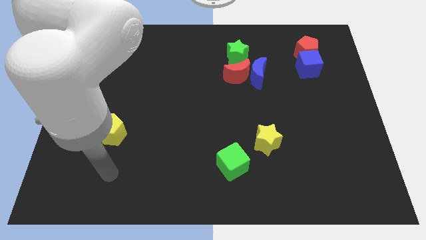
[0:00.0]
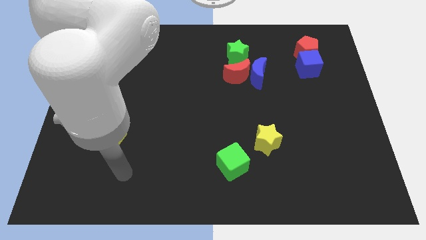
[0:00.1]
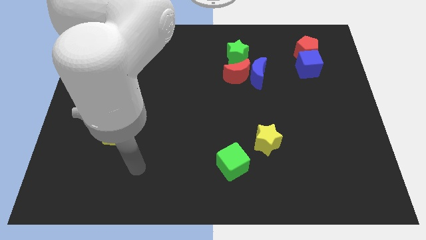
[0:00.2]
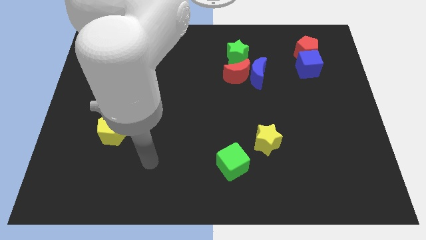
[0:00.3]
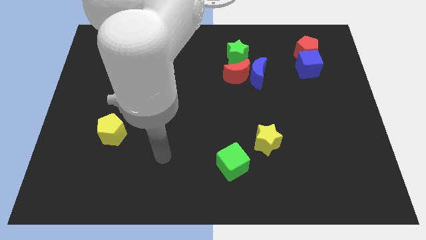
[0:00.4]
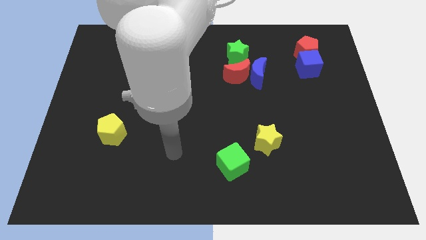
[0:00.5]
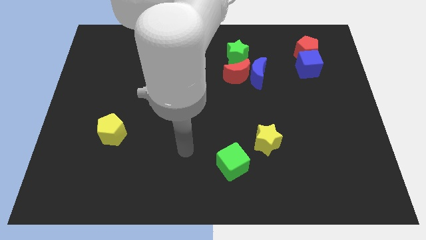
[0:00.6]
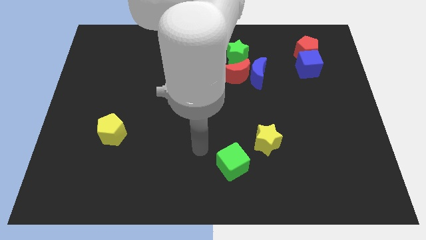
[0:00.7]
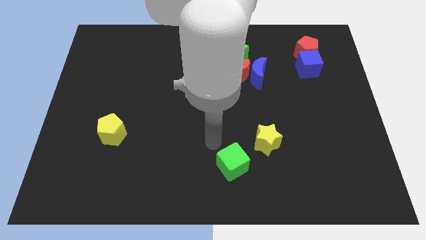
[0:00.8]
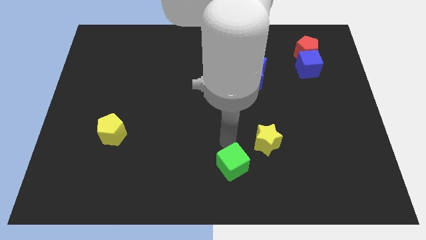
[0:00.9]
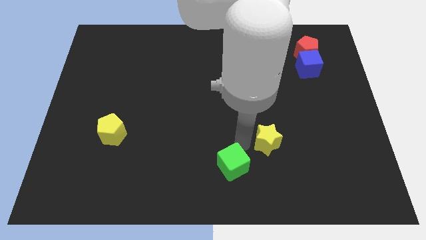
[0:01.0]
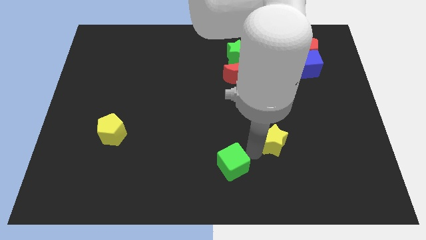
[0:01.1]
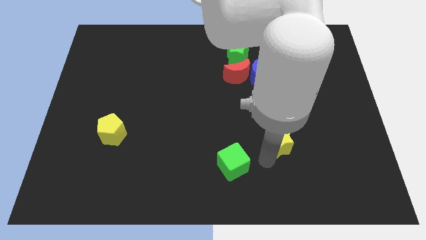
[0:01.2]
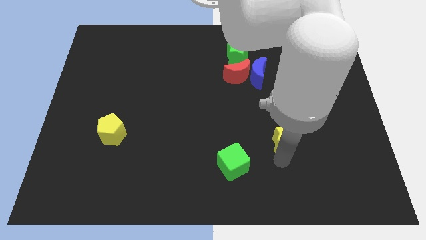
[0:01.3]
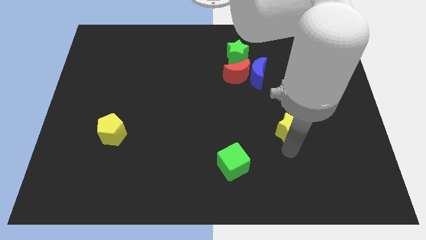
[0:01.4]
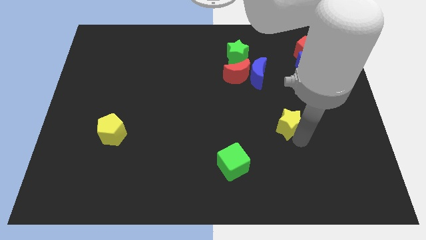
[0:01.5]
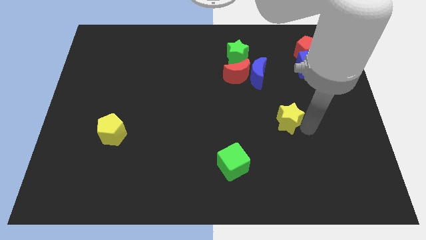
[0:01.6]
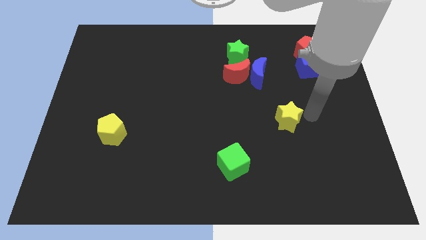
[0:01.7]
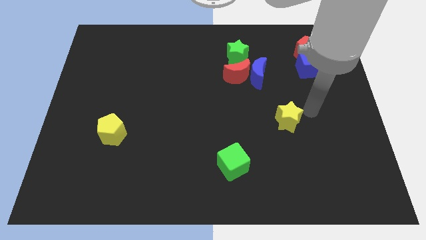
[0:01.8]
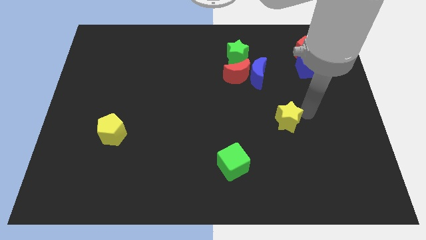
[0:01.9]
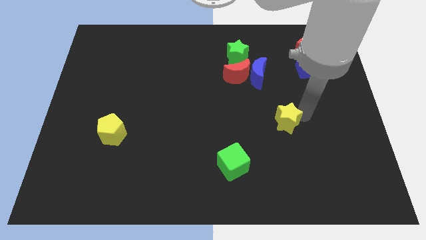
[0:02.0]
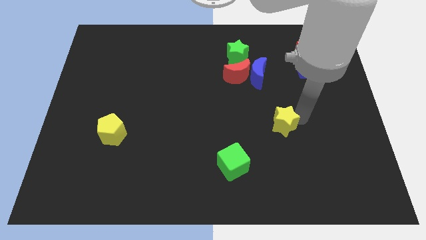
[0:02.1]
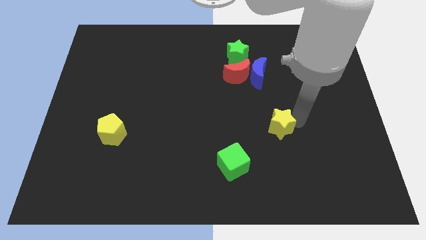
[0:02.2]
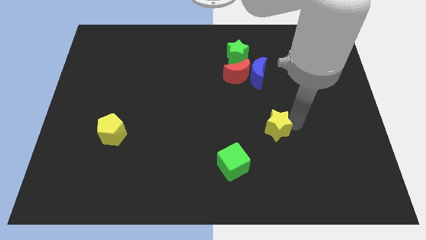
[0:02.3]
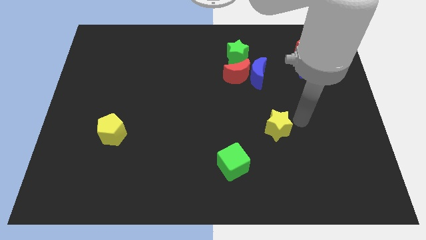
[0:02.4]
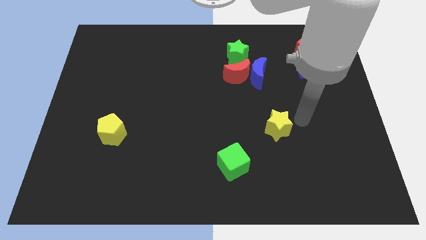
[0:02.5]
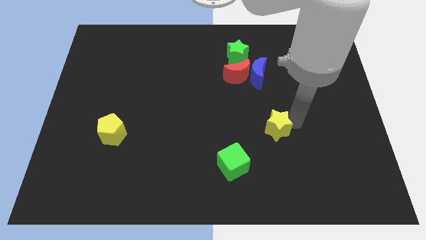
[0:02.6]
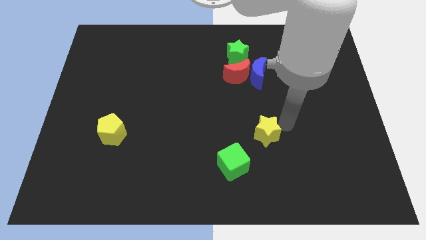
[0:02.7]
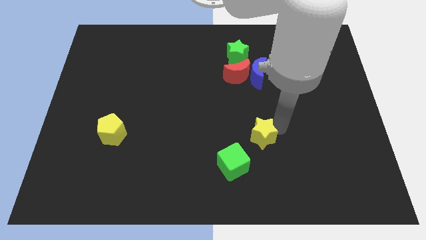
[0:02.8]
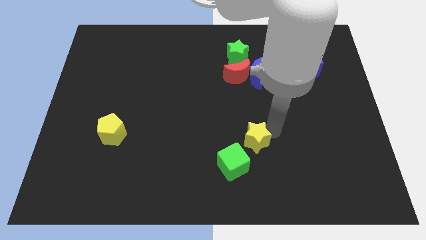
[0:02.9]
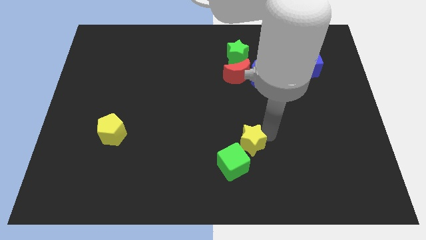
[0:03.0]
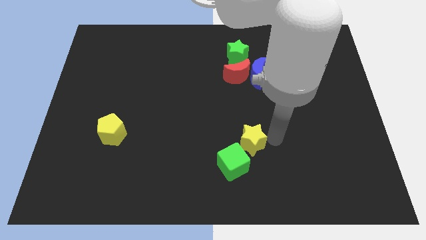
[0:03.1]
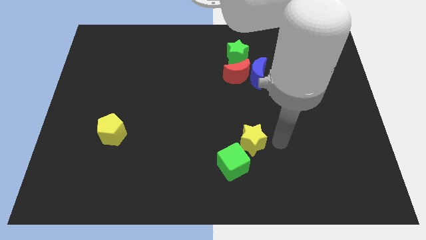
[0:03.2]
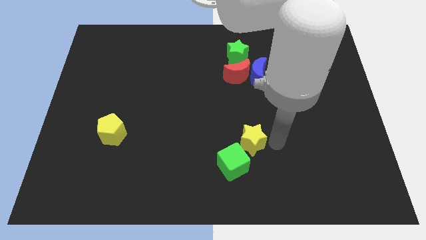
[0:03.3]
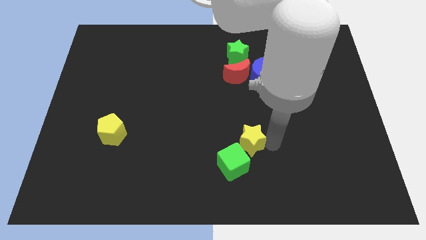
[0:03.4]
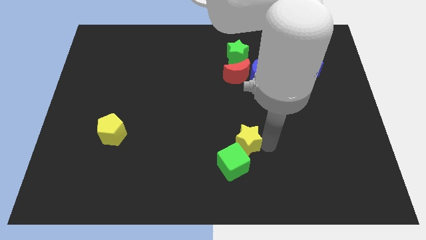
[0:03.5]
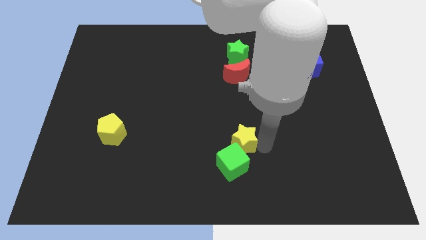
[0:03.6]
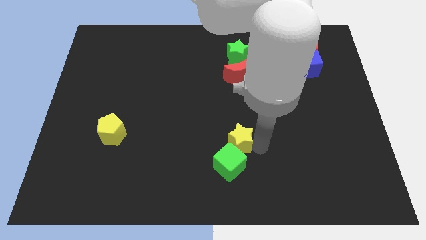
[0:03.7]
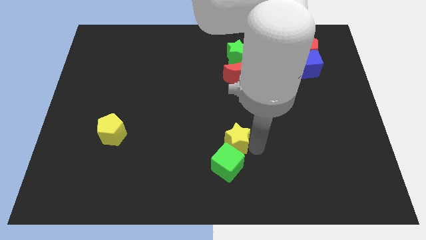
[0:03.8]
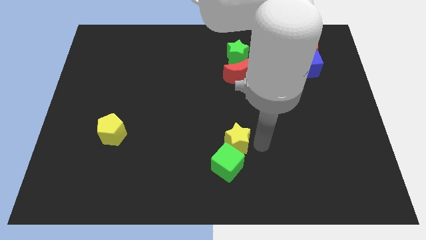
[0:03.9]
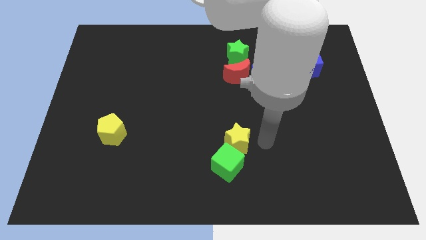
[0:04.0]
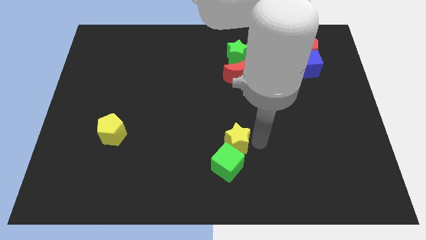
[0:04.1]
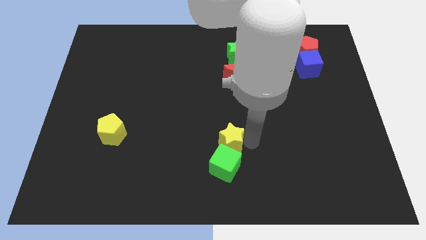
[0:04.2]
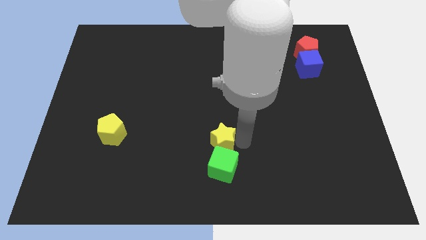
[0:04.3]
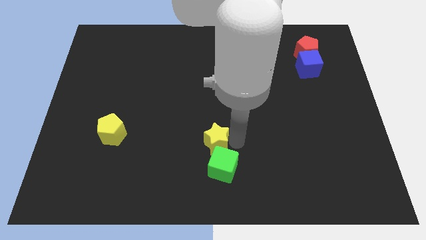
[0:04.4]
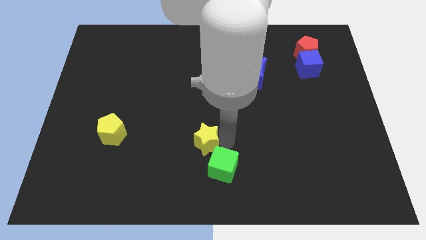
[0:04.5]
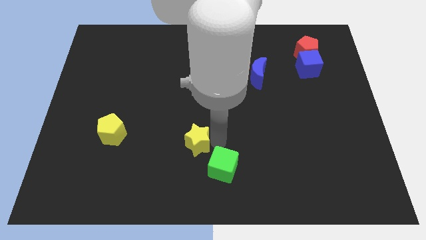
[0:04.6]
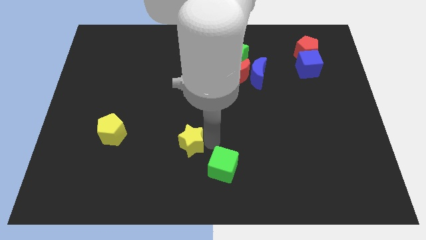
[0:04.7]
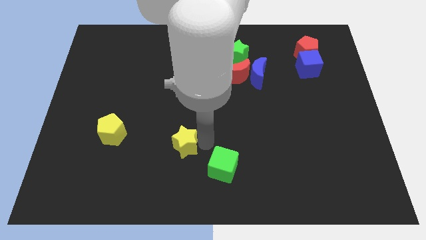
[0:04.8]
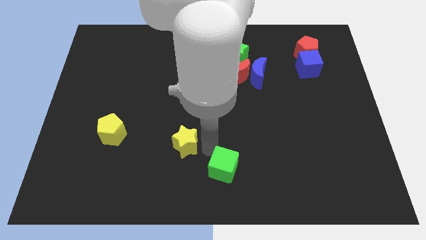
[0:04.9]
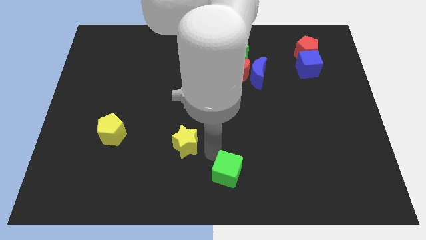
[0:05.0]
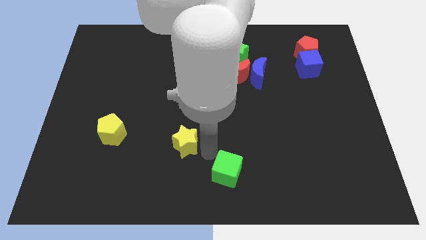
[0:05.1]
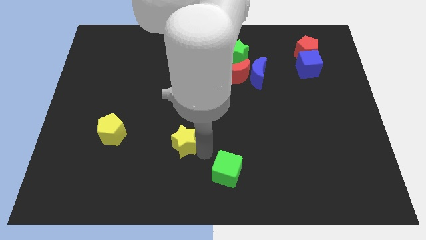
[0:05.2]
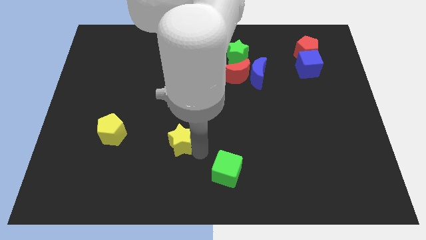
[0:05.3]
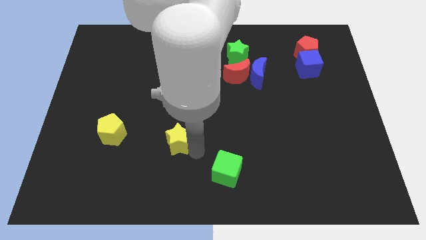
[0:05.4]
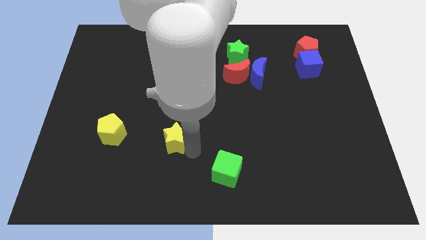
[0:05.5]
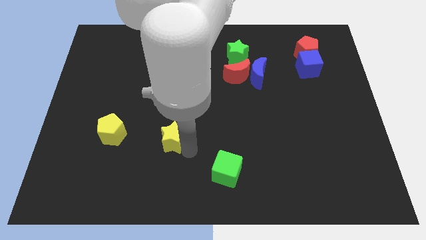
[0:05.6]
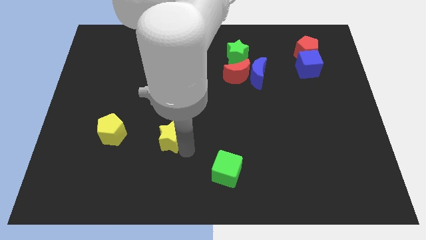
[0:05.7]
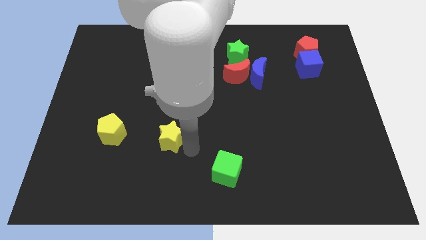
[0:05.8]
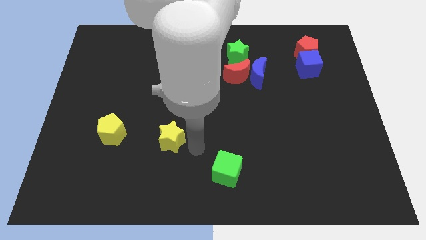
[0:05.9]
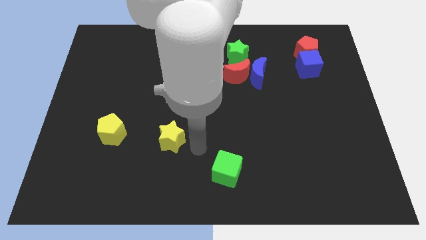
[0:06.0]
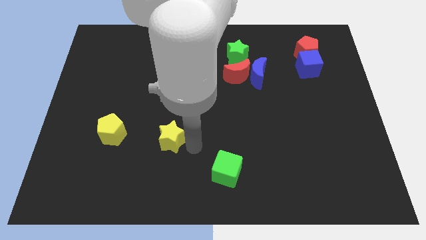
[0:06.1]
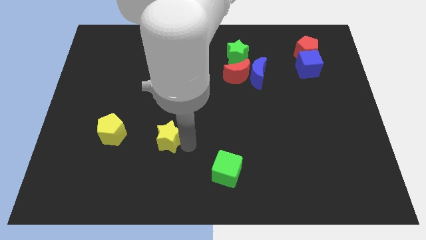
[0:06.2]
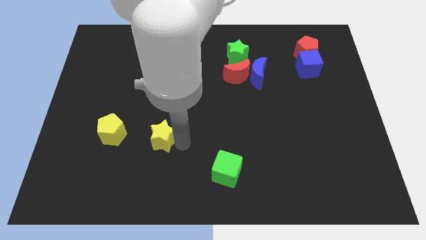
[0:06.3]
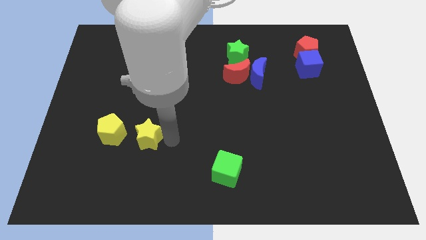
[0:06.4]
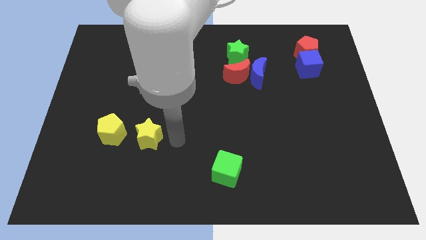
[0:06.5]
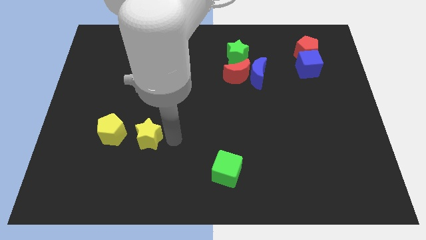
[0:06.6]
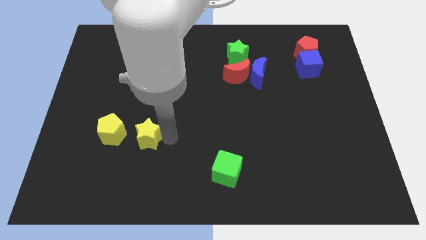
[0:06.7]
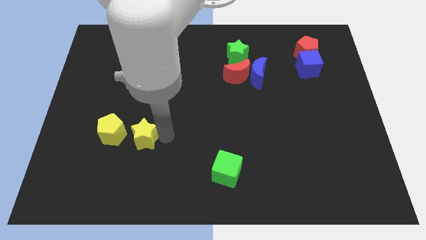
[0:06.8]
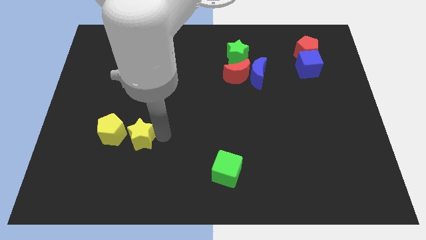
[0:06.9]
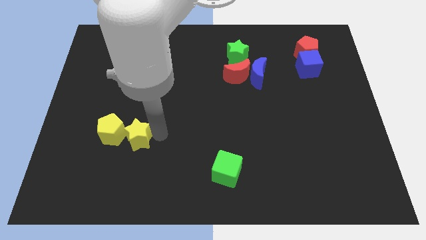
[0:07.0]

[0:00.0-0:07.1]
move the yellow star towards the yellow pentagon
